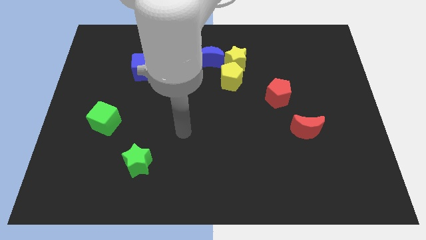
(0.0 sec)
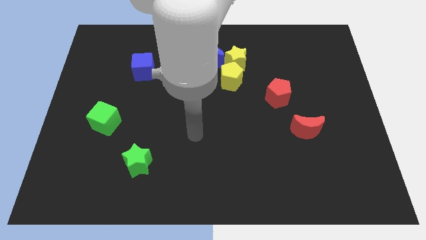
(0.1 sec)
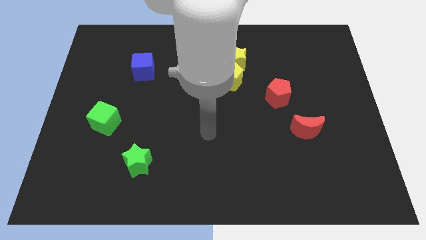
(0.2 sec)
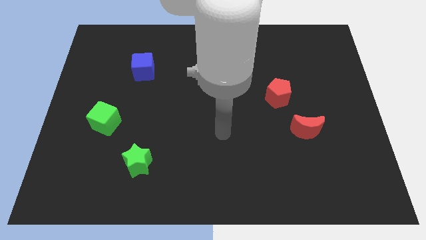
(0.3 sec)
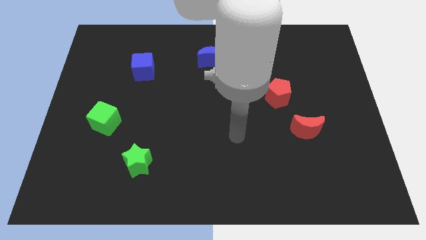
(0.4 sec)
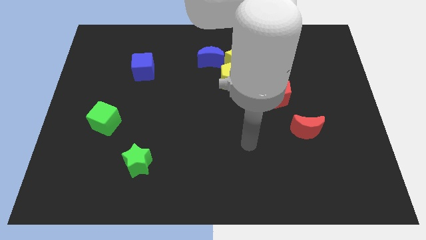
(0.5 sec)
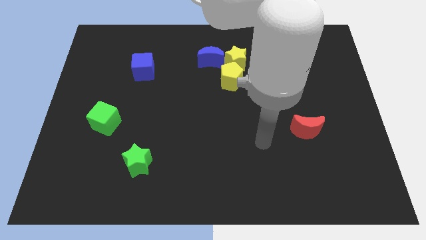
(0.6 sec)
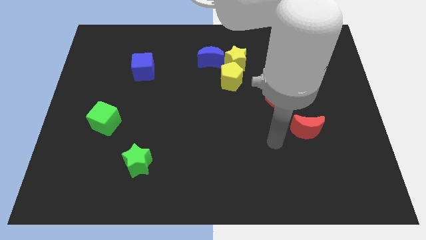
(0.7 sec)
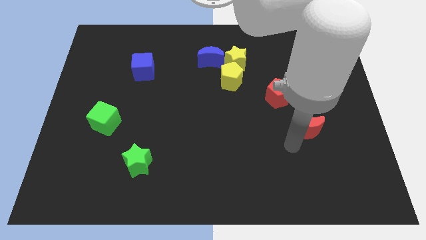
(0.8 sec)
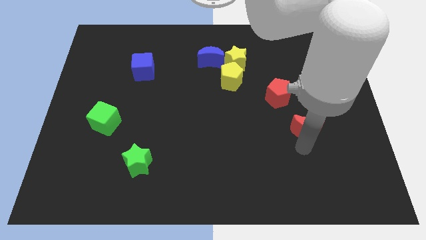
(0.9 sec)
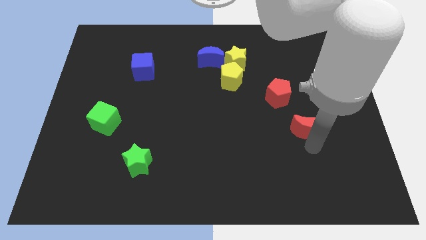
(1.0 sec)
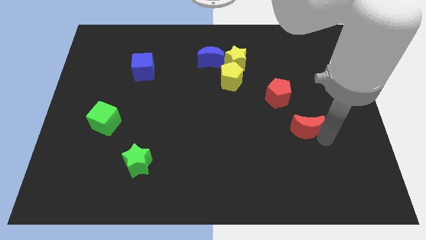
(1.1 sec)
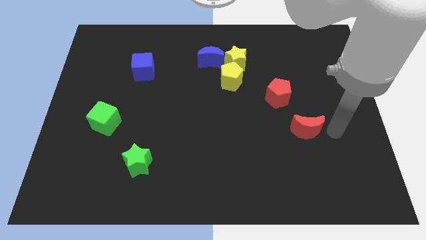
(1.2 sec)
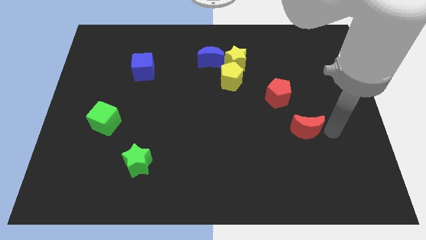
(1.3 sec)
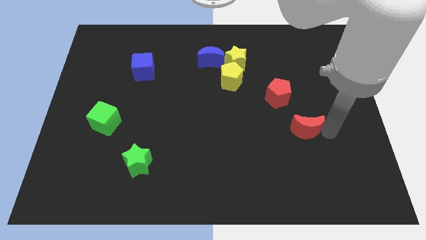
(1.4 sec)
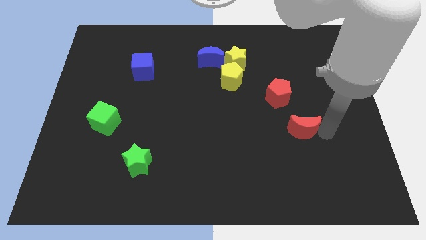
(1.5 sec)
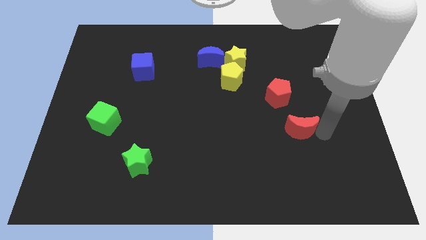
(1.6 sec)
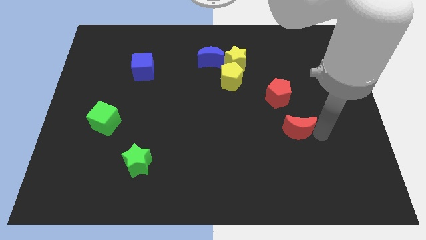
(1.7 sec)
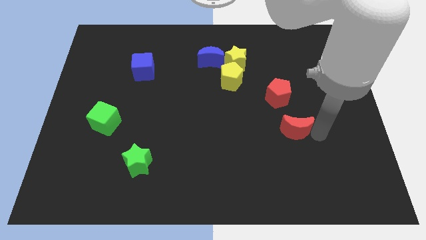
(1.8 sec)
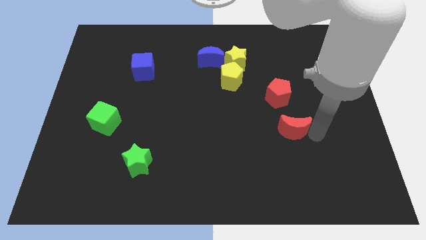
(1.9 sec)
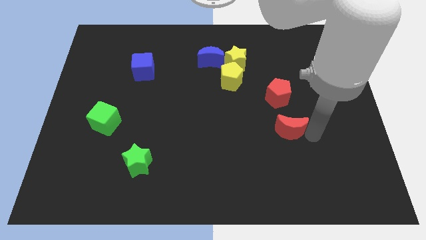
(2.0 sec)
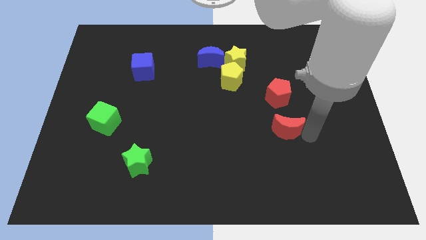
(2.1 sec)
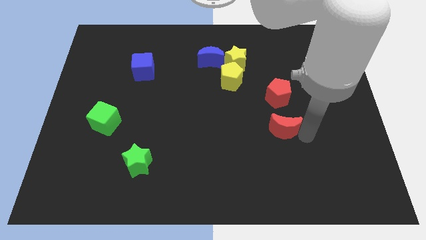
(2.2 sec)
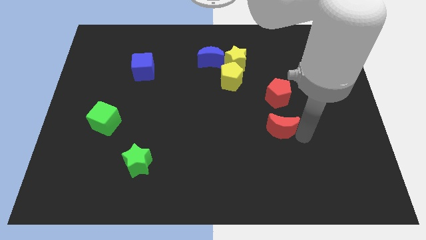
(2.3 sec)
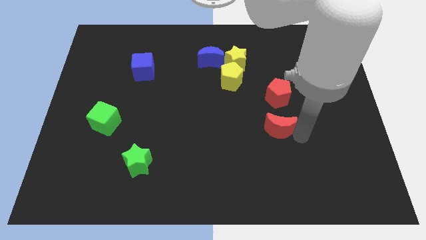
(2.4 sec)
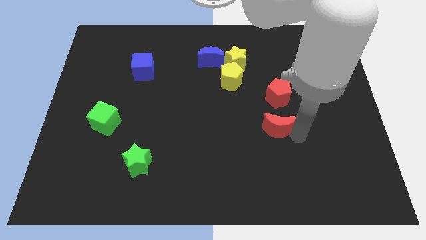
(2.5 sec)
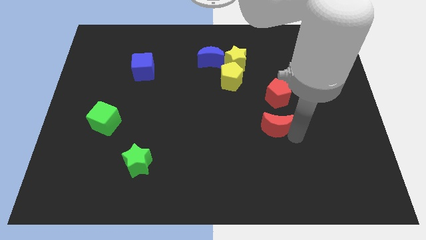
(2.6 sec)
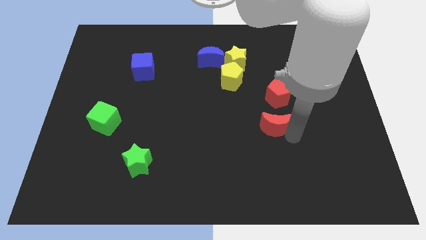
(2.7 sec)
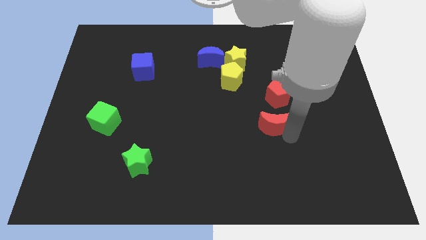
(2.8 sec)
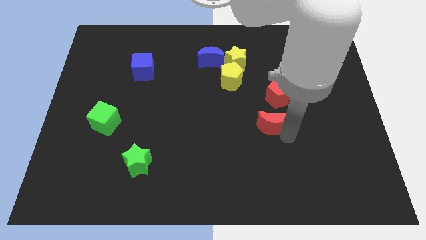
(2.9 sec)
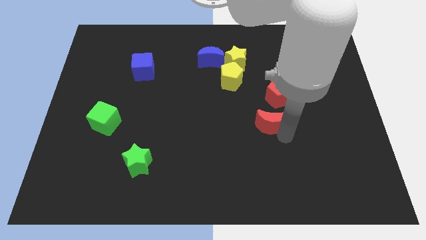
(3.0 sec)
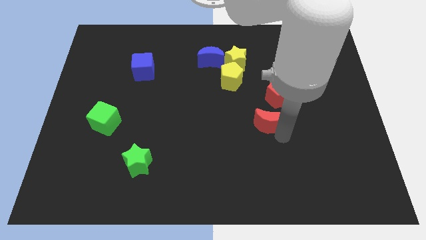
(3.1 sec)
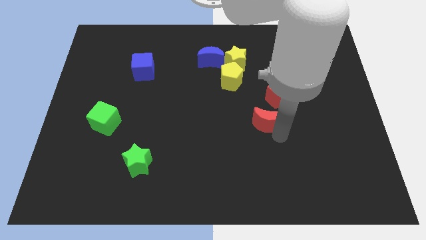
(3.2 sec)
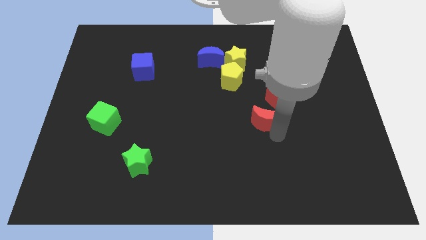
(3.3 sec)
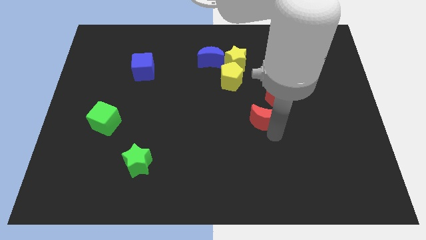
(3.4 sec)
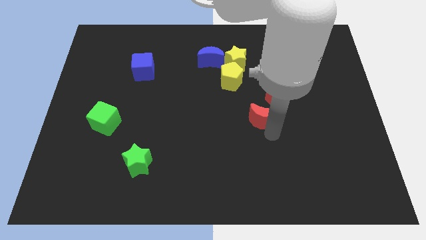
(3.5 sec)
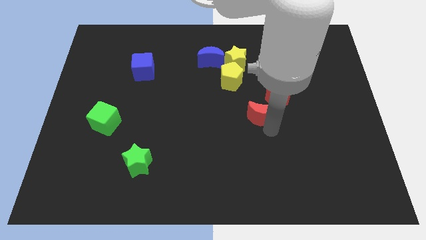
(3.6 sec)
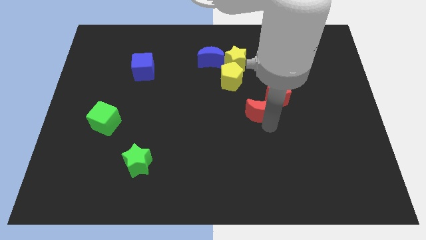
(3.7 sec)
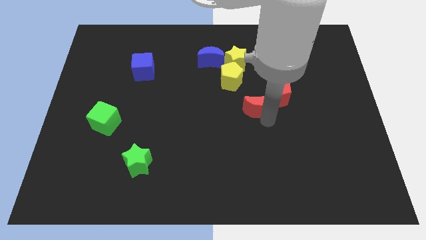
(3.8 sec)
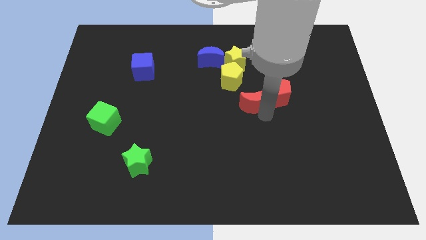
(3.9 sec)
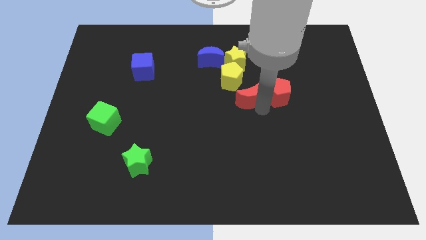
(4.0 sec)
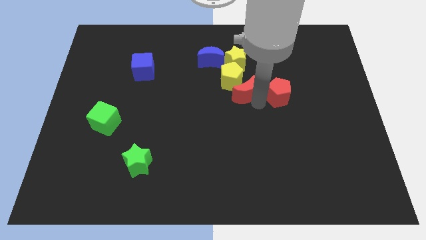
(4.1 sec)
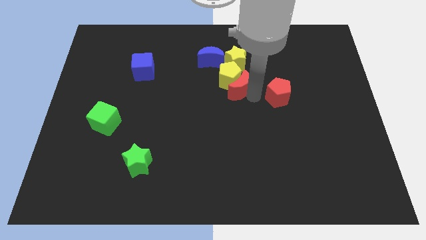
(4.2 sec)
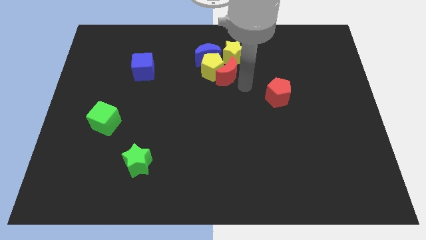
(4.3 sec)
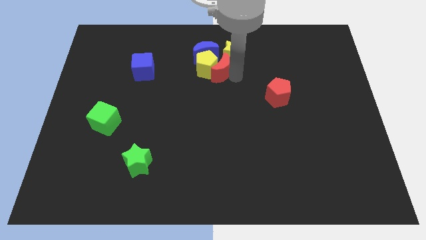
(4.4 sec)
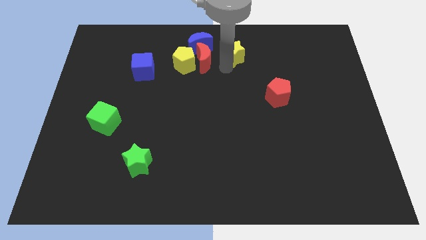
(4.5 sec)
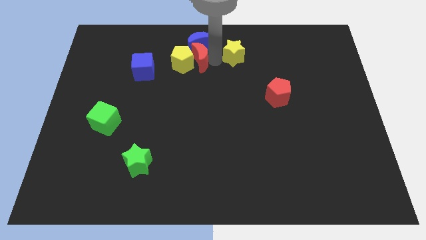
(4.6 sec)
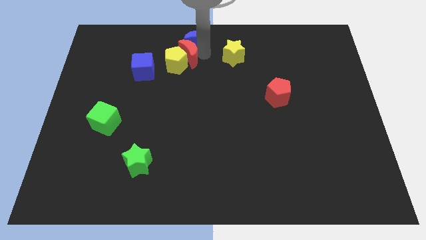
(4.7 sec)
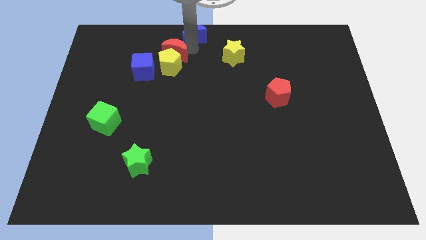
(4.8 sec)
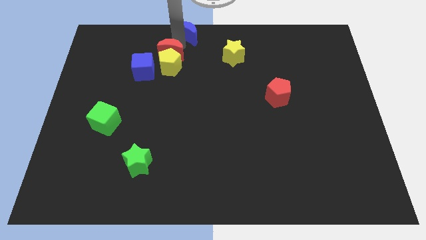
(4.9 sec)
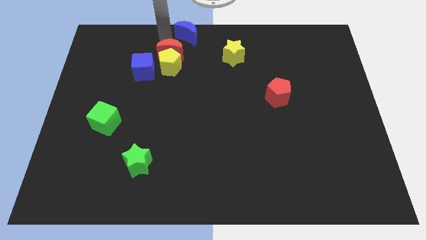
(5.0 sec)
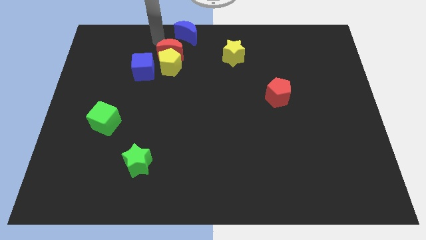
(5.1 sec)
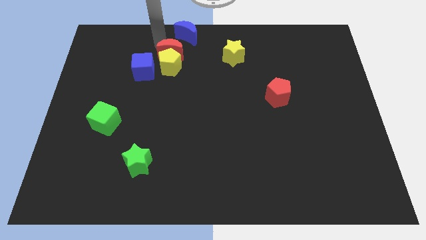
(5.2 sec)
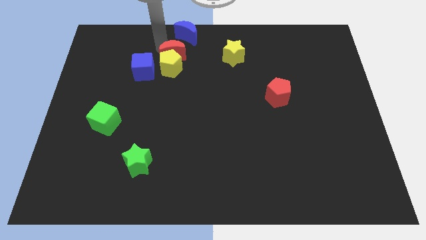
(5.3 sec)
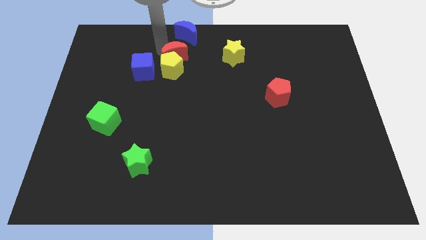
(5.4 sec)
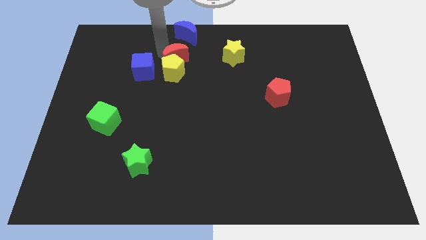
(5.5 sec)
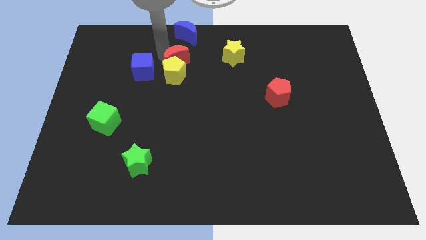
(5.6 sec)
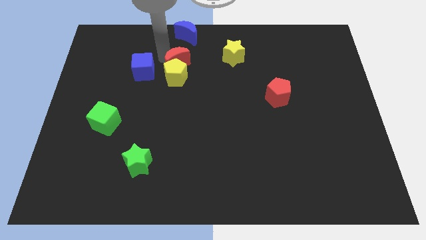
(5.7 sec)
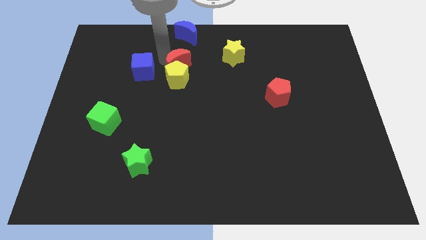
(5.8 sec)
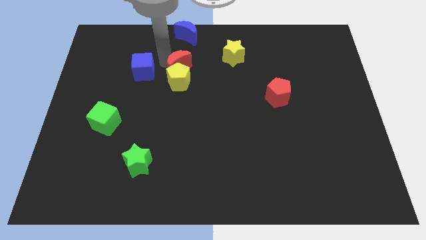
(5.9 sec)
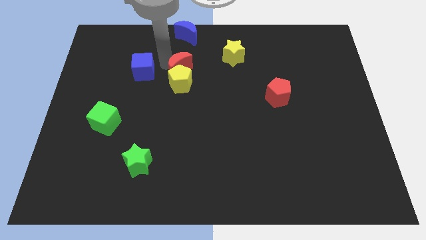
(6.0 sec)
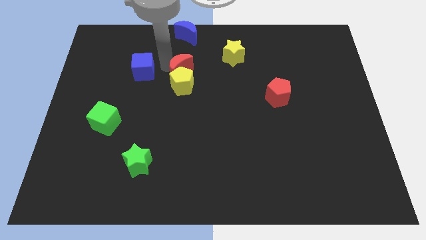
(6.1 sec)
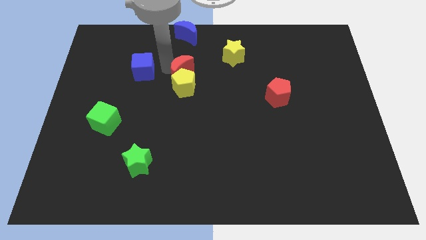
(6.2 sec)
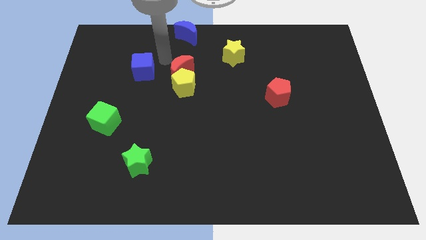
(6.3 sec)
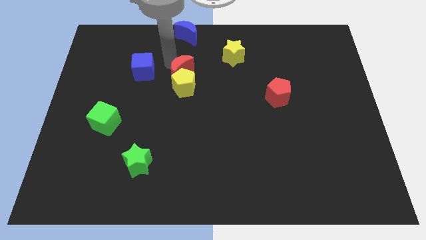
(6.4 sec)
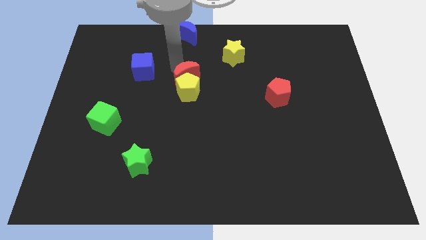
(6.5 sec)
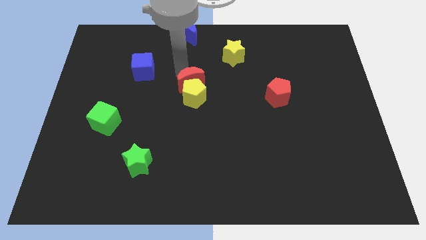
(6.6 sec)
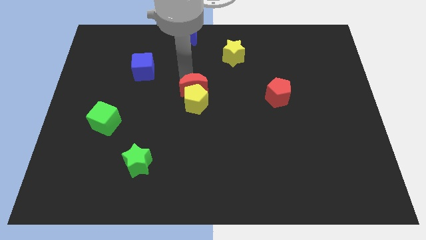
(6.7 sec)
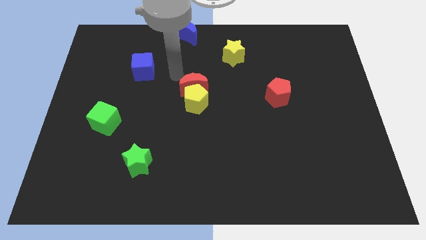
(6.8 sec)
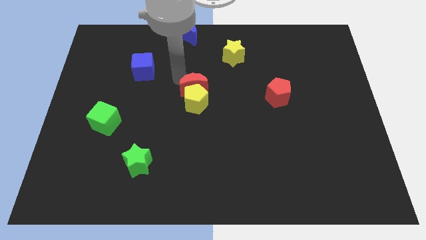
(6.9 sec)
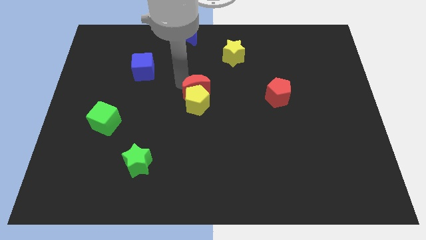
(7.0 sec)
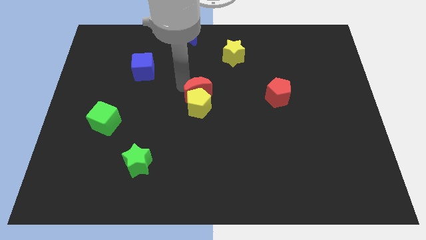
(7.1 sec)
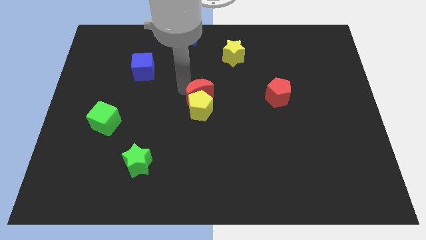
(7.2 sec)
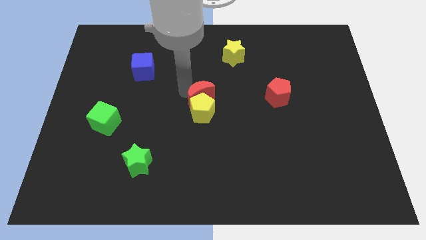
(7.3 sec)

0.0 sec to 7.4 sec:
slide the red moon left

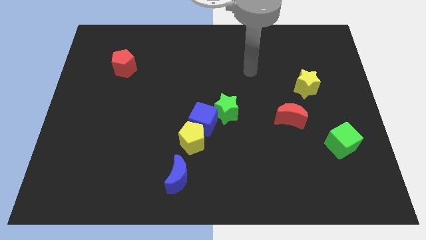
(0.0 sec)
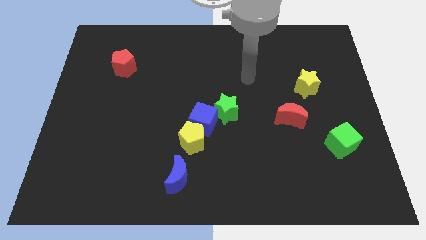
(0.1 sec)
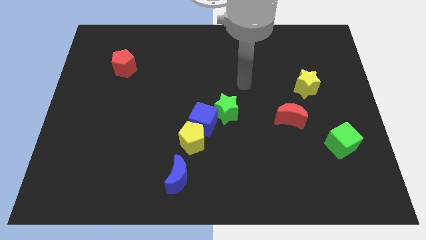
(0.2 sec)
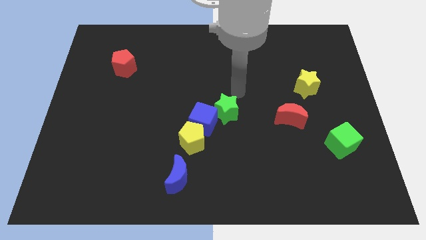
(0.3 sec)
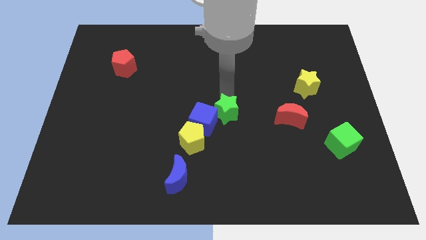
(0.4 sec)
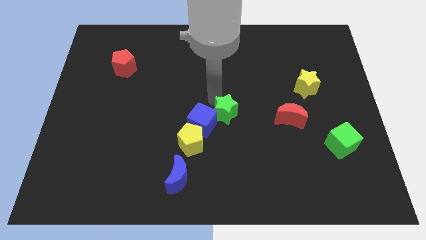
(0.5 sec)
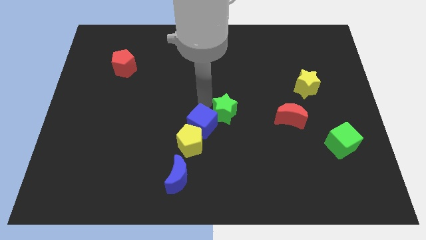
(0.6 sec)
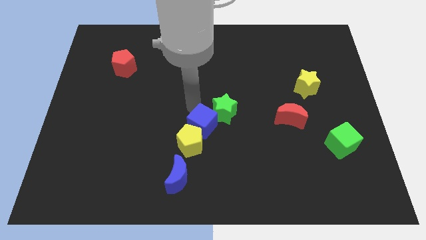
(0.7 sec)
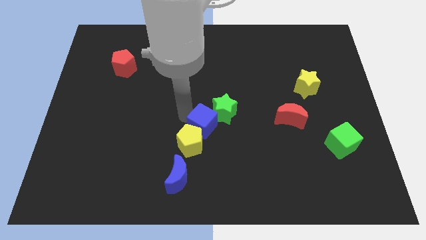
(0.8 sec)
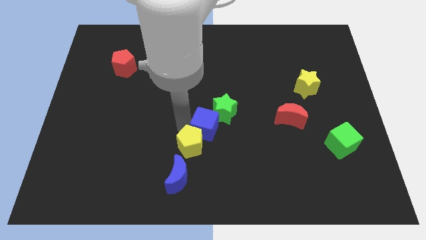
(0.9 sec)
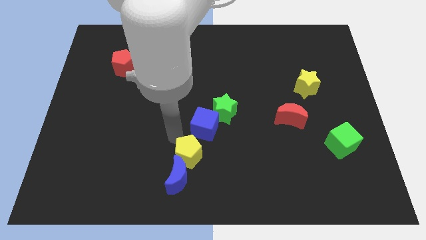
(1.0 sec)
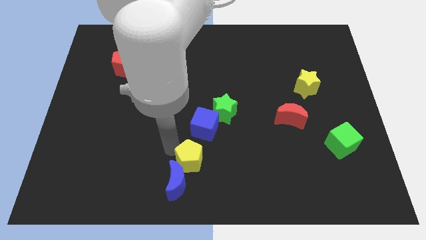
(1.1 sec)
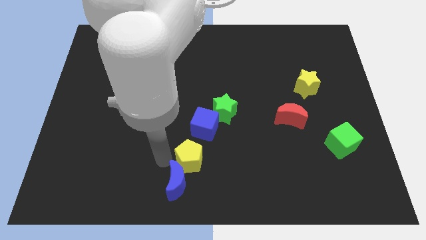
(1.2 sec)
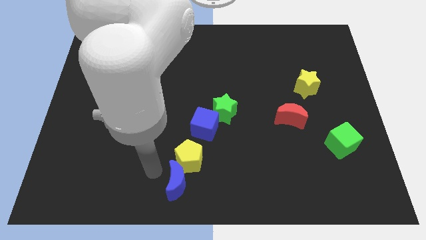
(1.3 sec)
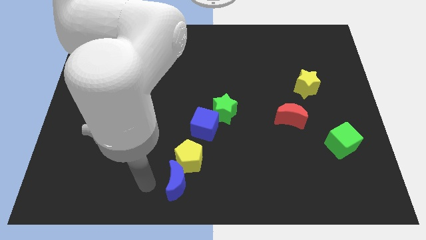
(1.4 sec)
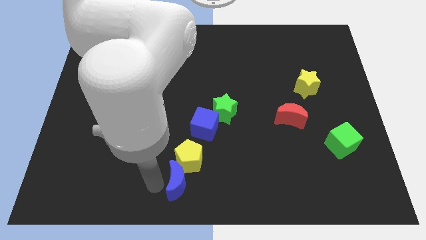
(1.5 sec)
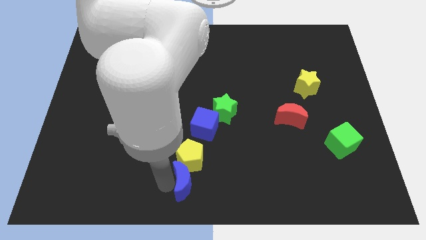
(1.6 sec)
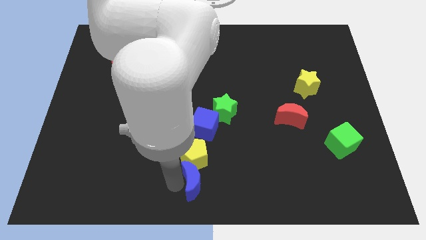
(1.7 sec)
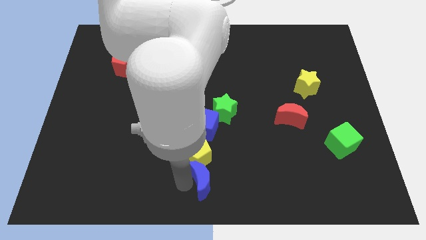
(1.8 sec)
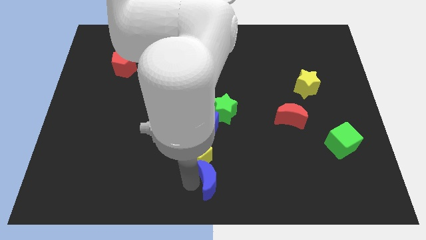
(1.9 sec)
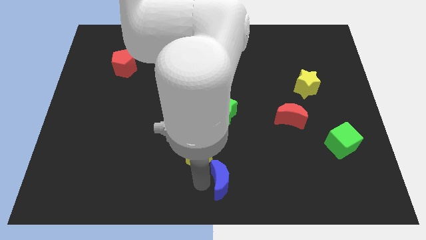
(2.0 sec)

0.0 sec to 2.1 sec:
push the blue moon a little to the right
